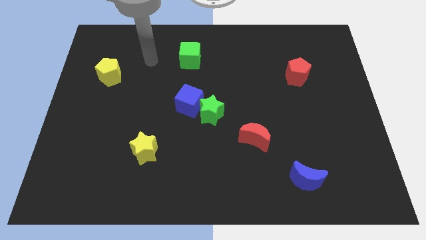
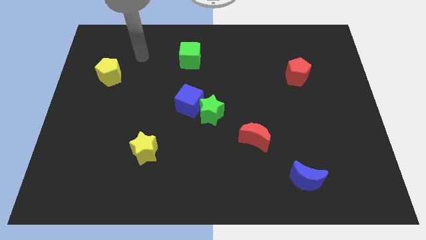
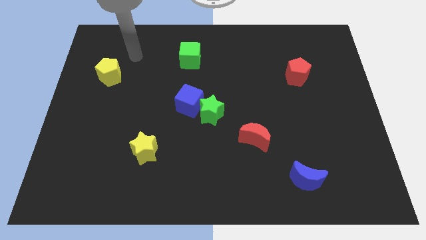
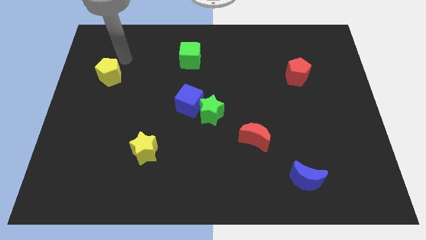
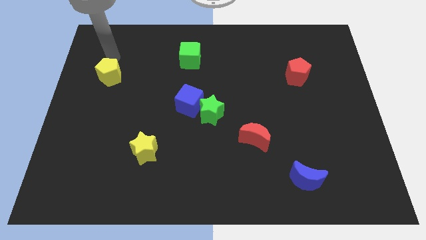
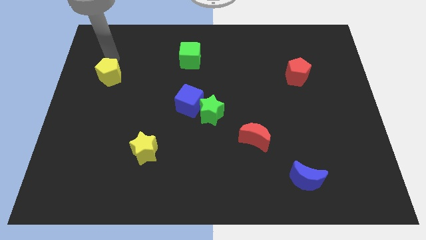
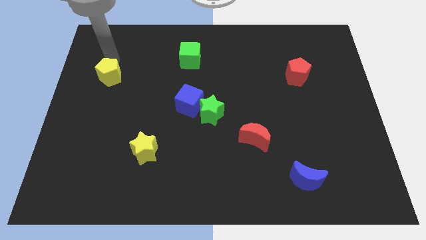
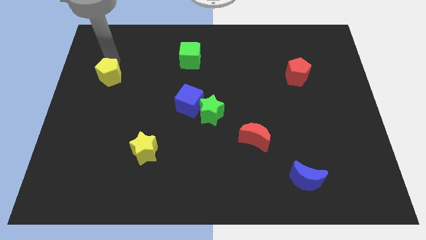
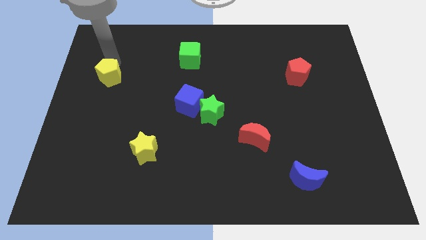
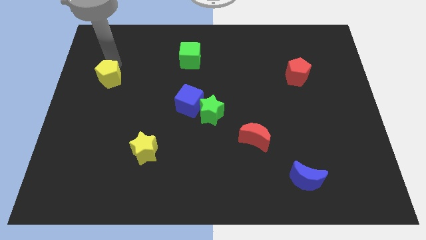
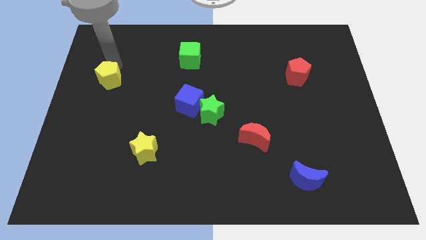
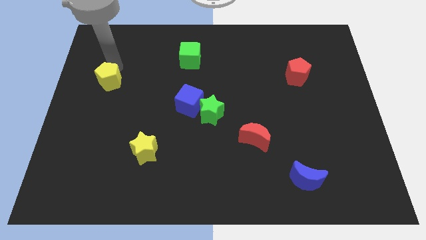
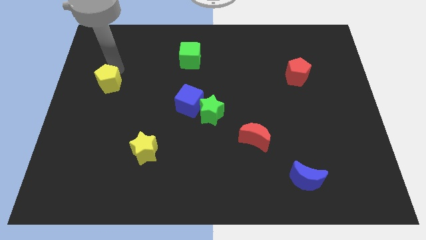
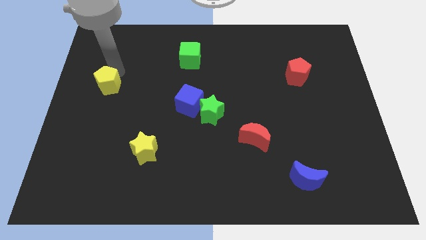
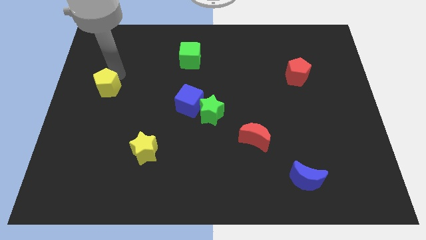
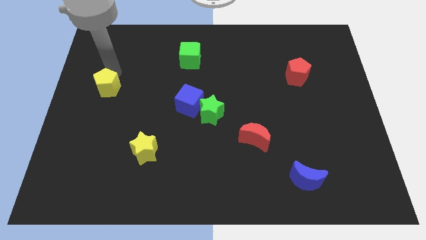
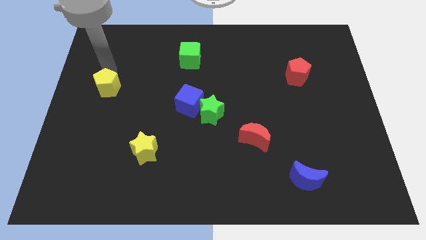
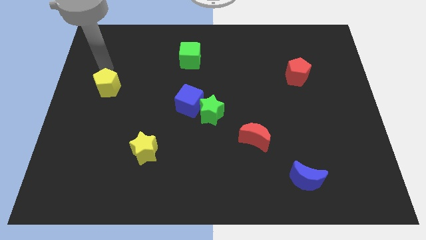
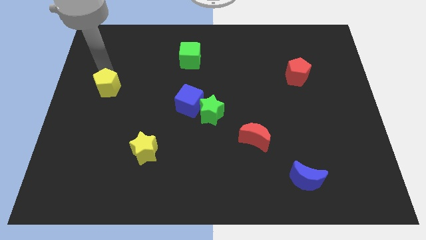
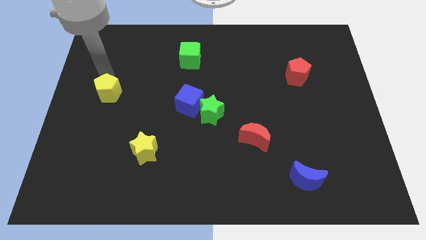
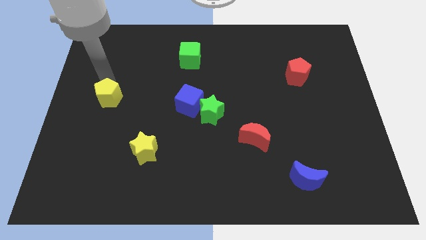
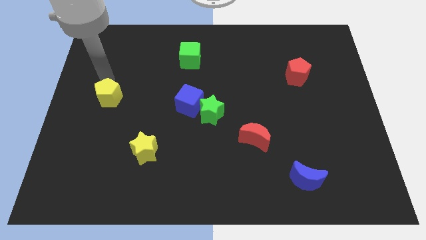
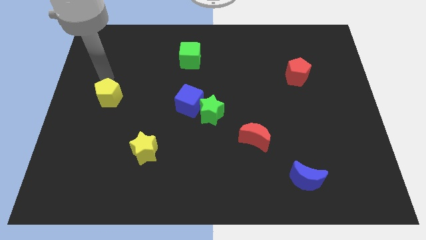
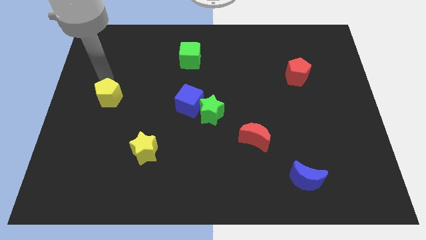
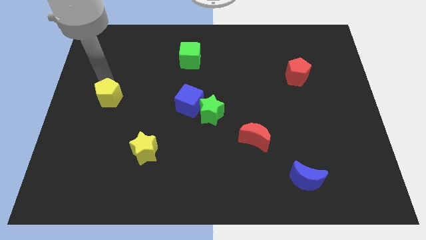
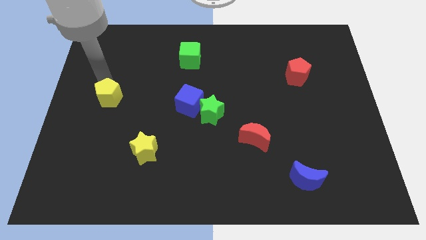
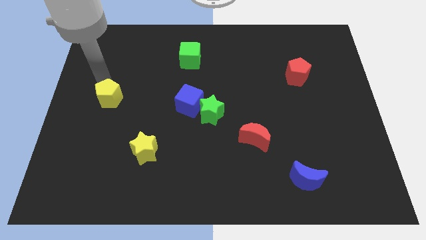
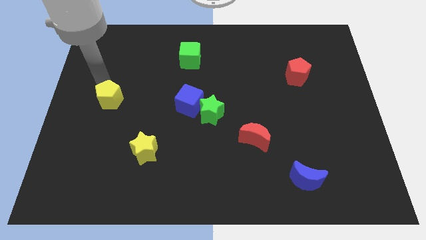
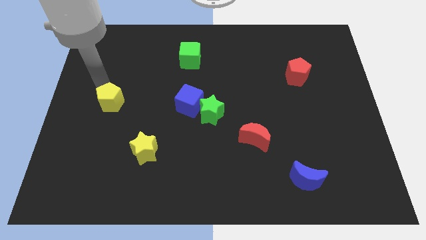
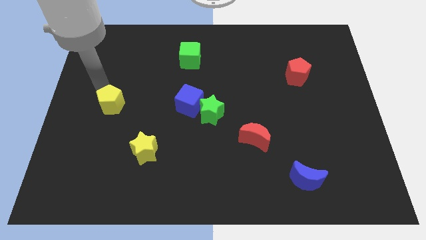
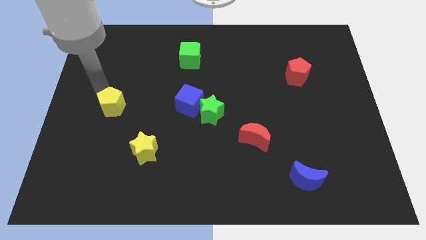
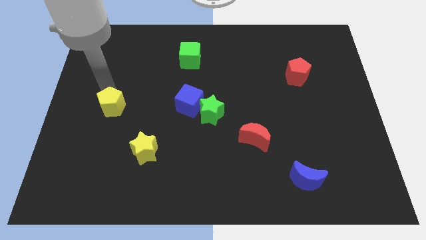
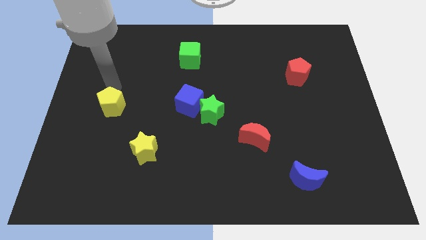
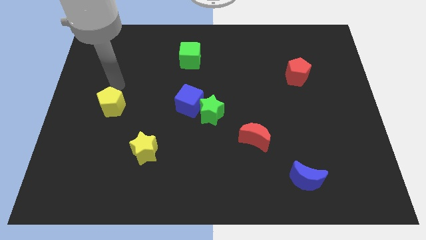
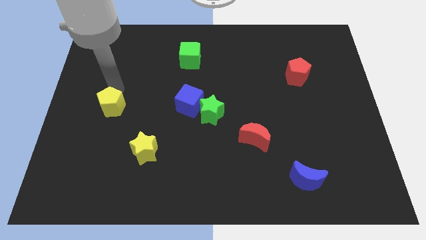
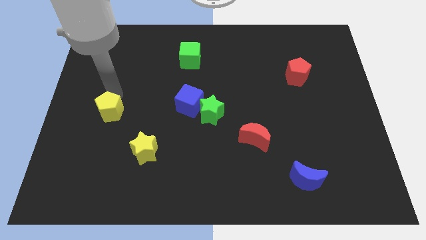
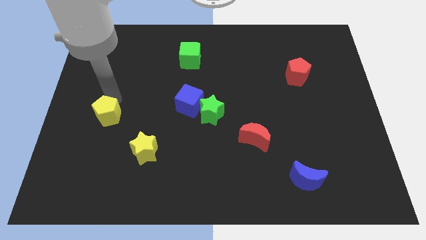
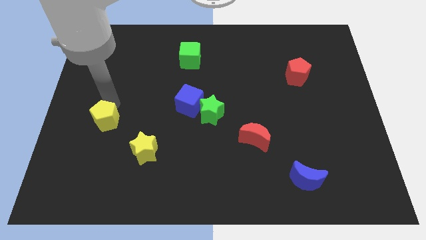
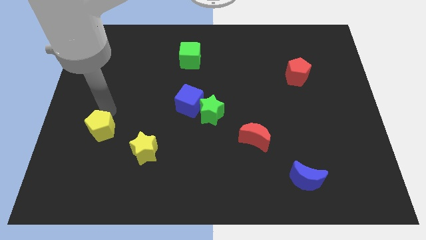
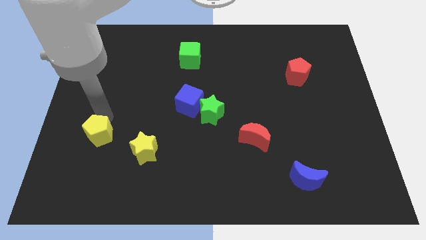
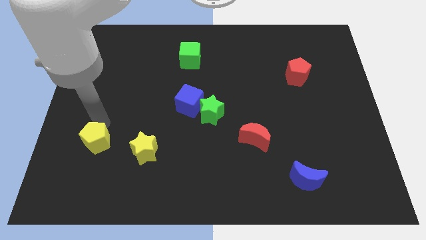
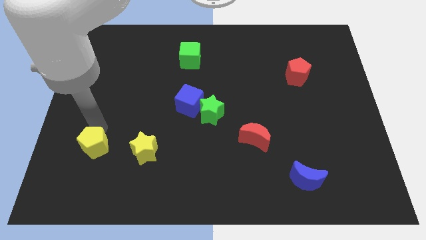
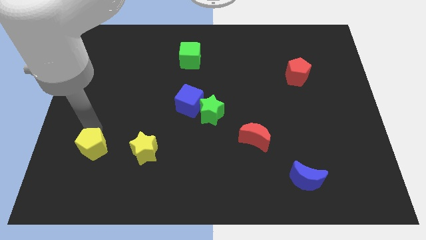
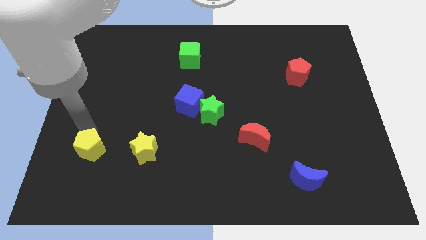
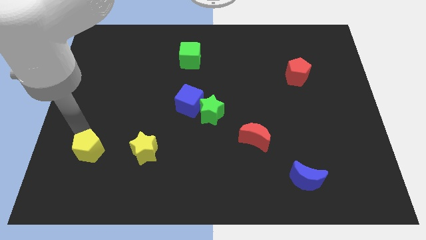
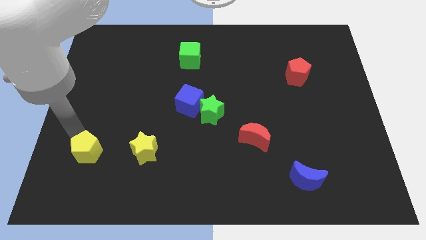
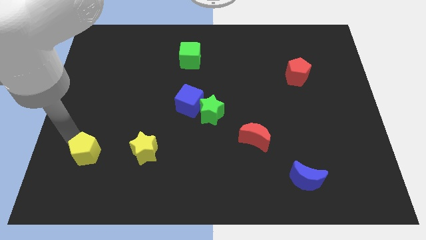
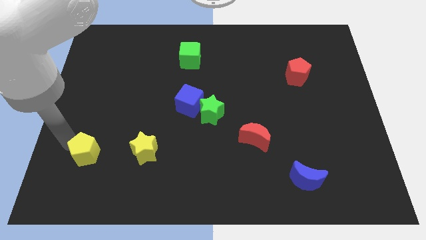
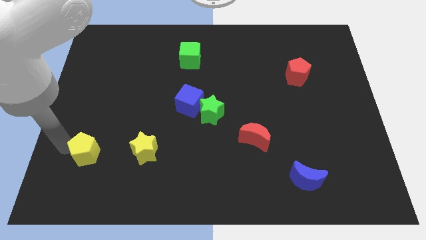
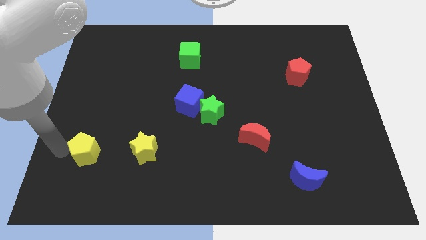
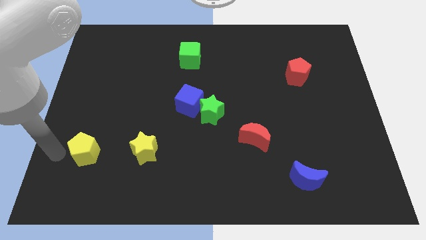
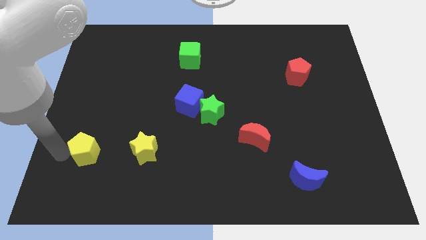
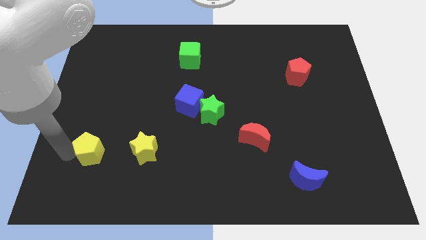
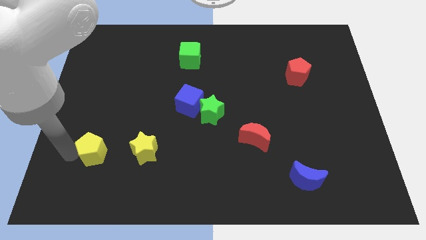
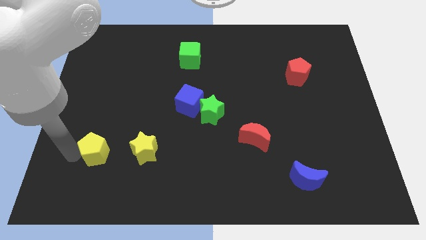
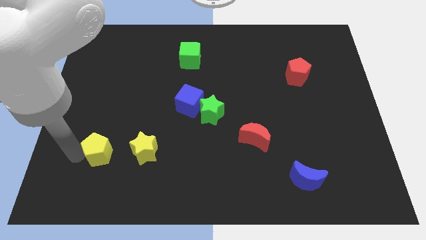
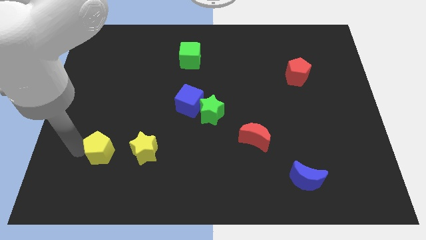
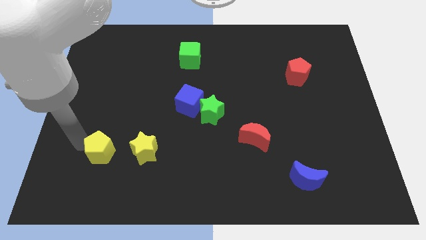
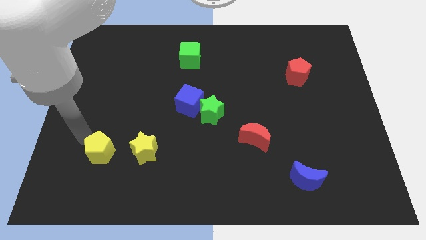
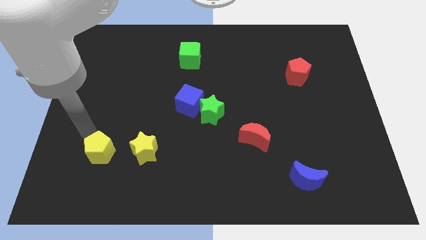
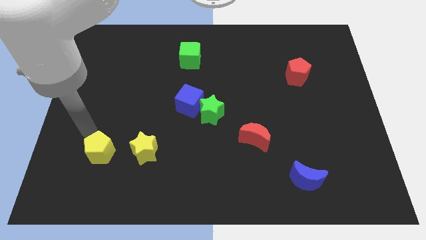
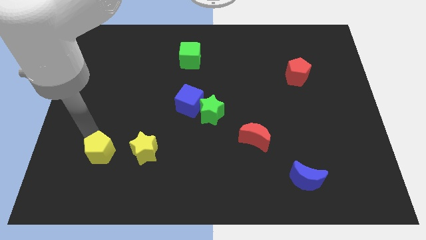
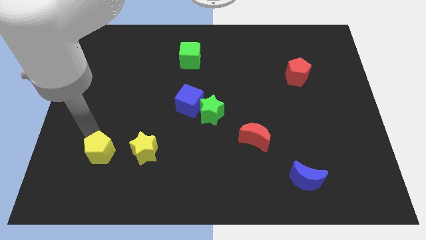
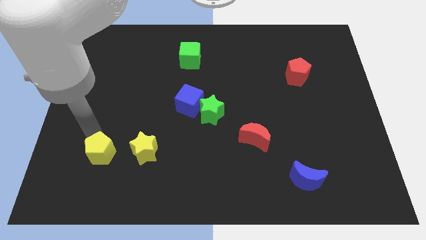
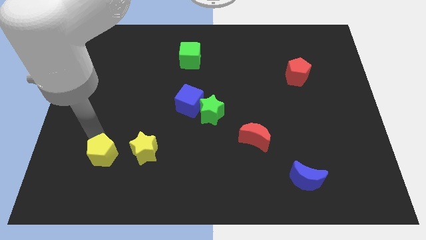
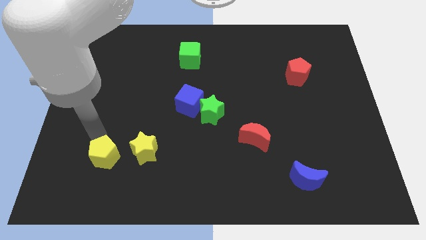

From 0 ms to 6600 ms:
put the yellow pentagon to the bottom left side of the yellow star
